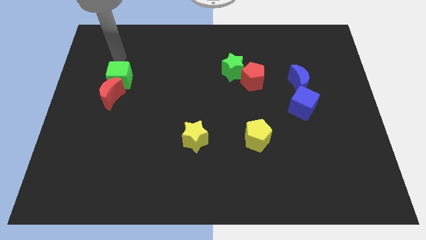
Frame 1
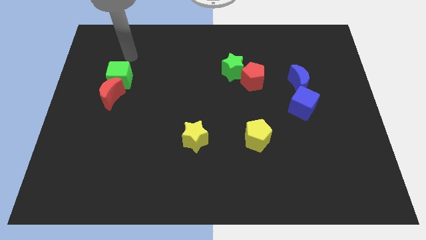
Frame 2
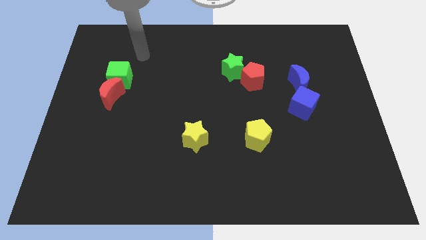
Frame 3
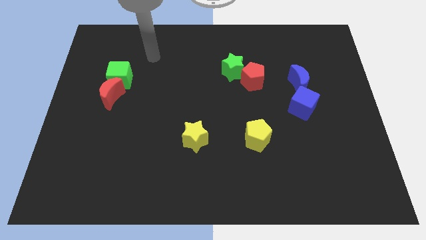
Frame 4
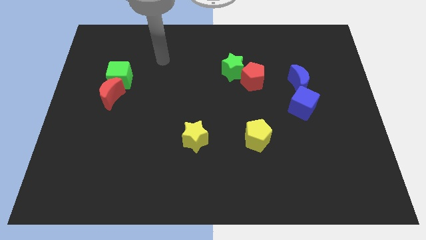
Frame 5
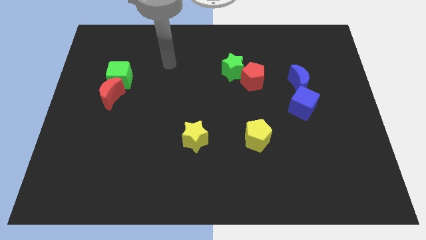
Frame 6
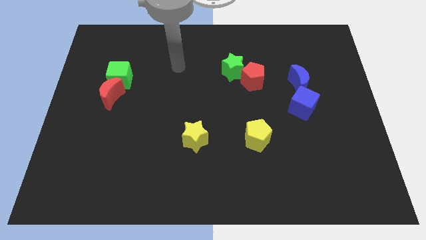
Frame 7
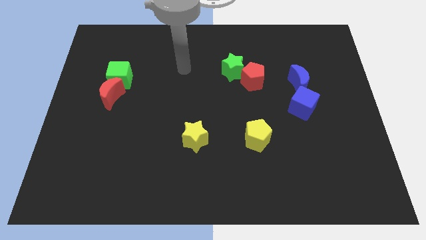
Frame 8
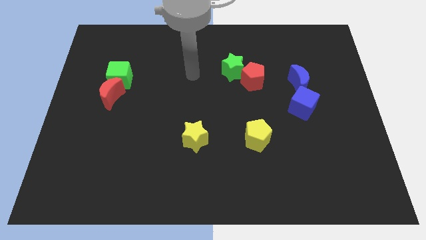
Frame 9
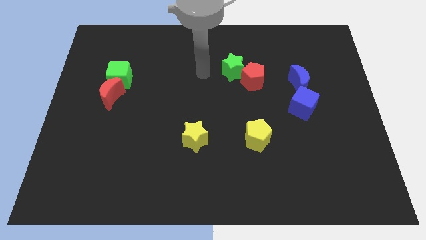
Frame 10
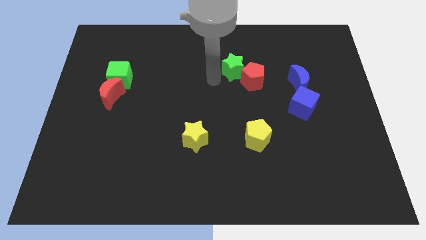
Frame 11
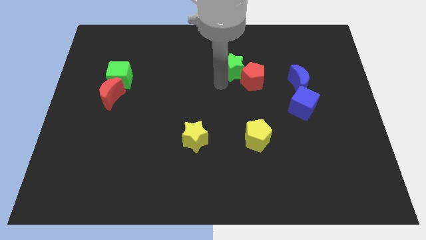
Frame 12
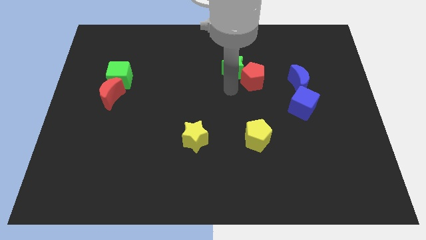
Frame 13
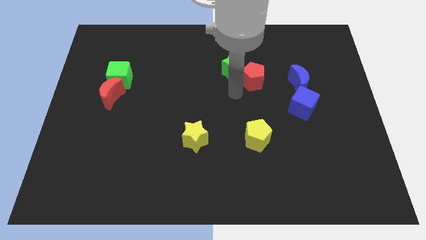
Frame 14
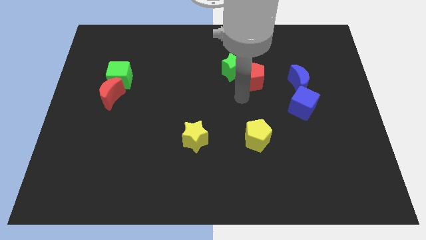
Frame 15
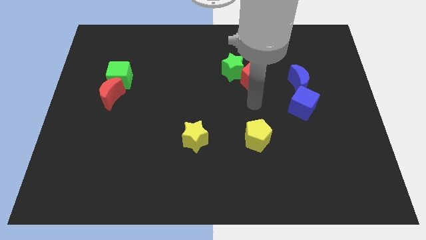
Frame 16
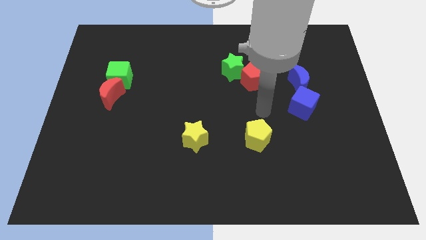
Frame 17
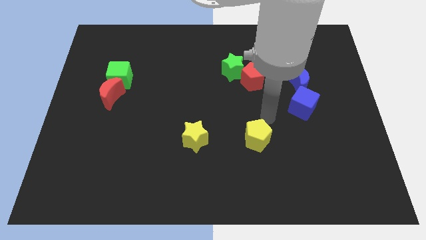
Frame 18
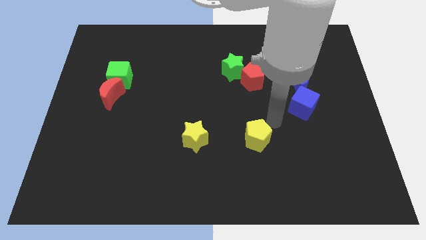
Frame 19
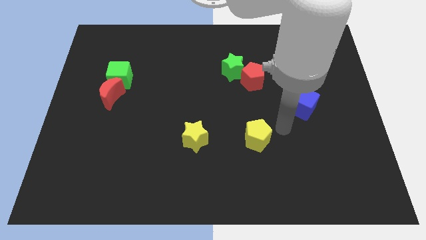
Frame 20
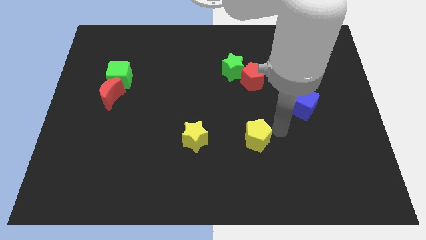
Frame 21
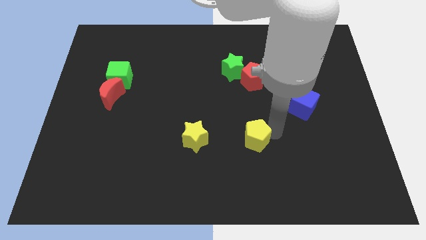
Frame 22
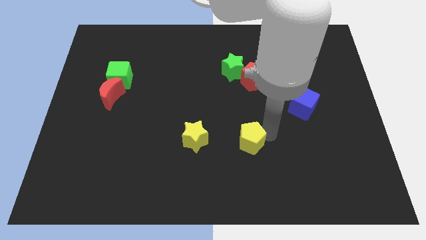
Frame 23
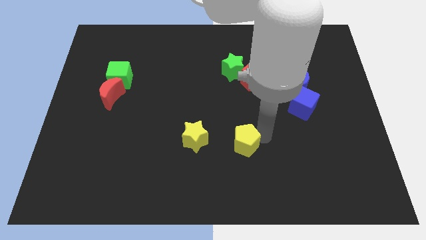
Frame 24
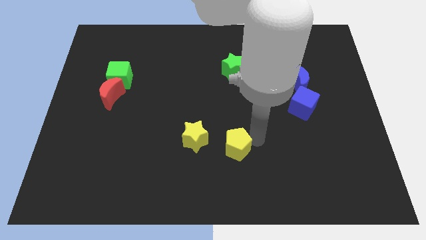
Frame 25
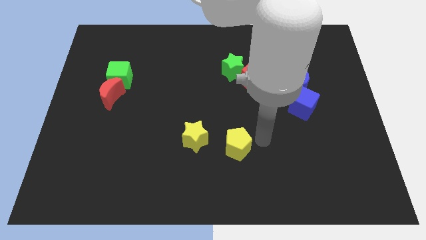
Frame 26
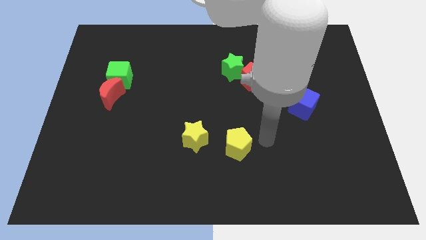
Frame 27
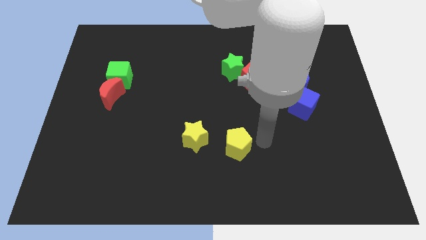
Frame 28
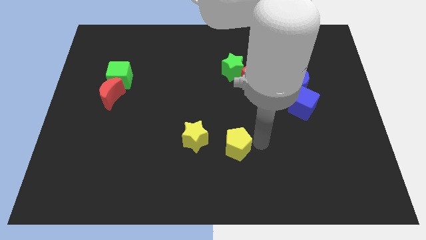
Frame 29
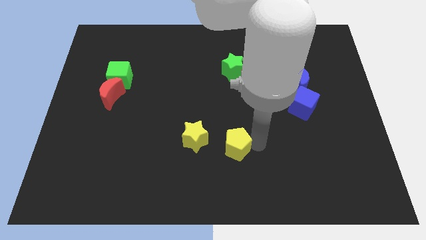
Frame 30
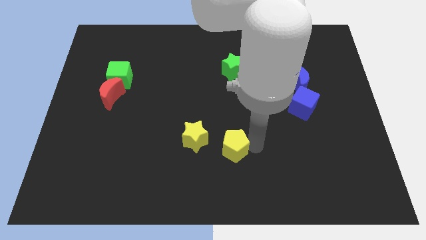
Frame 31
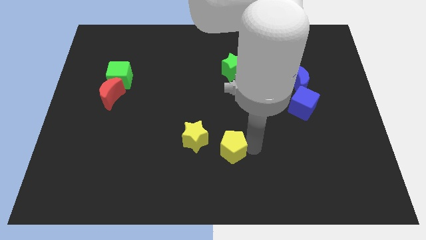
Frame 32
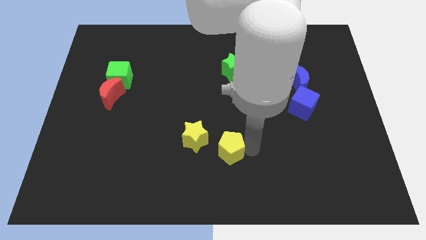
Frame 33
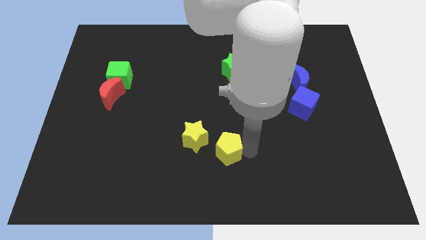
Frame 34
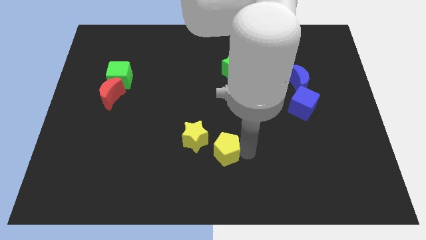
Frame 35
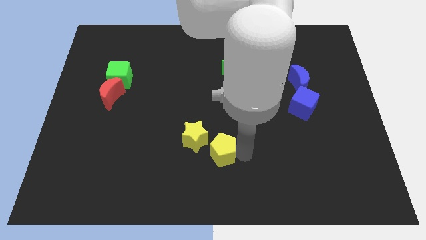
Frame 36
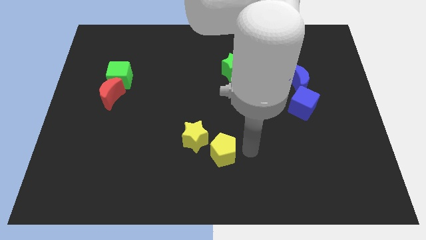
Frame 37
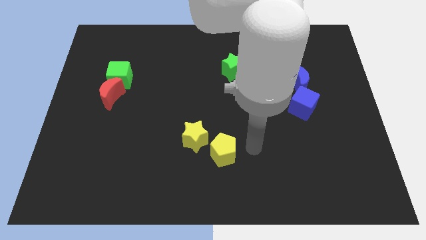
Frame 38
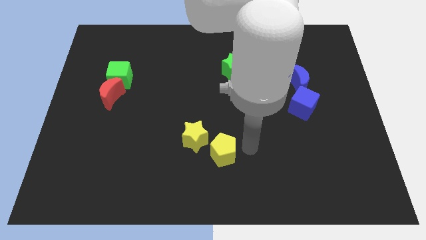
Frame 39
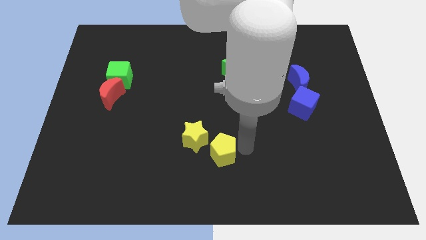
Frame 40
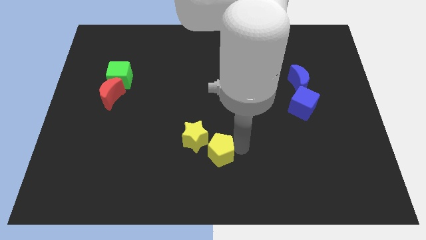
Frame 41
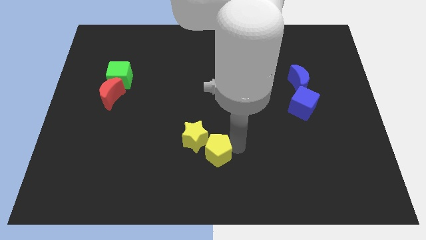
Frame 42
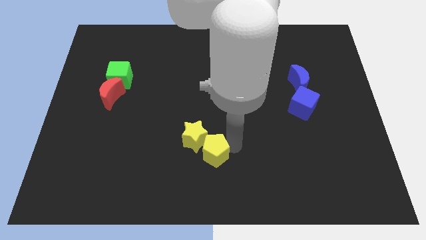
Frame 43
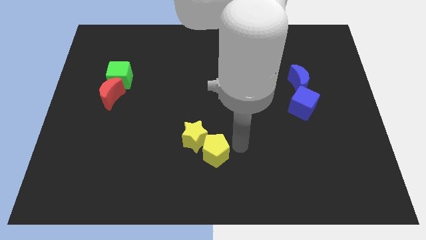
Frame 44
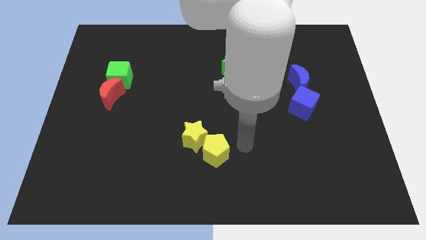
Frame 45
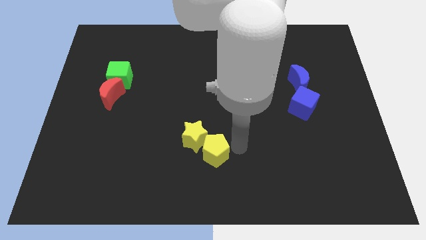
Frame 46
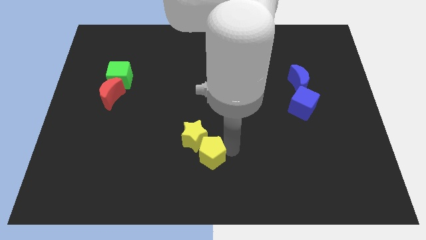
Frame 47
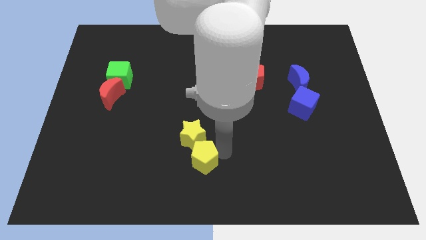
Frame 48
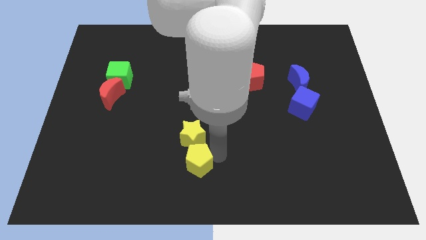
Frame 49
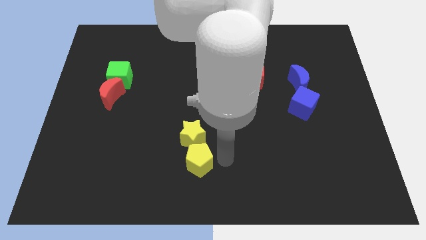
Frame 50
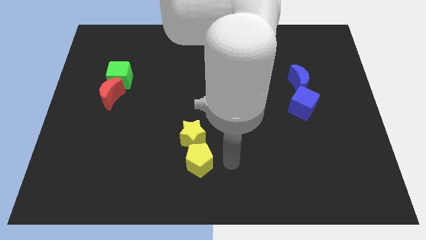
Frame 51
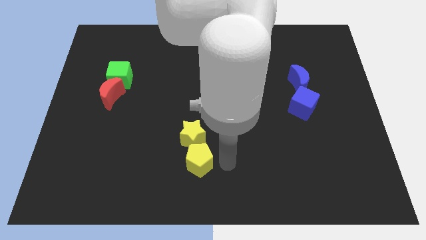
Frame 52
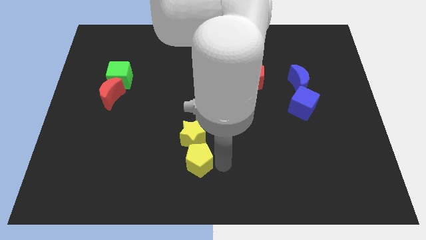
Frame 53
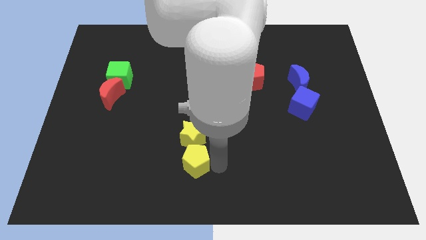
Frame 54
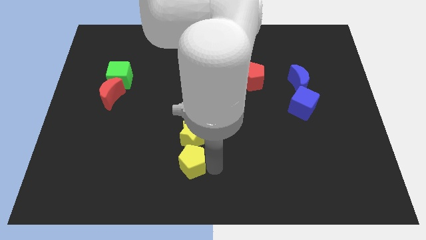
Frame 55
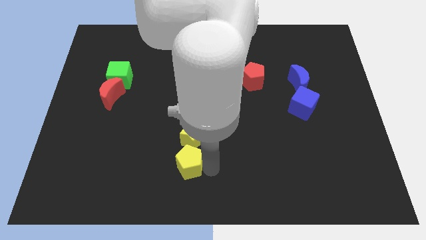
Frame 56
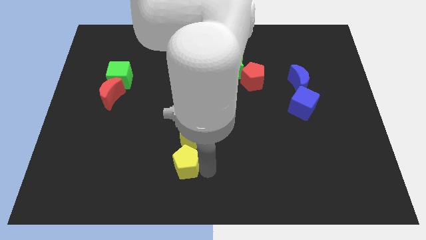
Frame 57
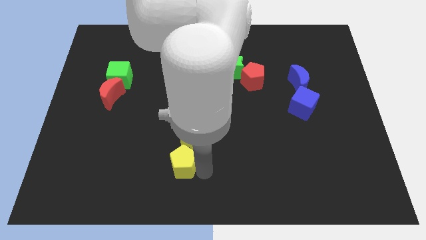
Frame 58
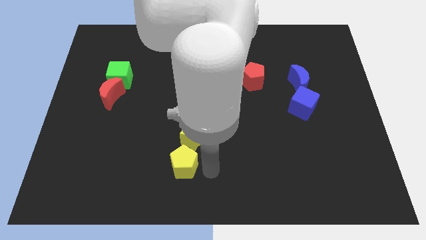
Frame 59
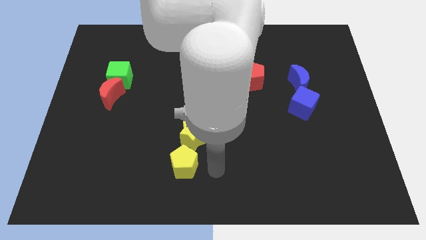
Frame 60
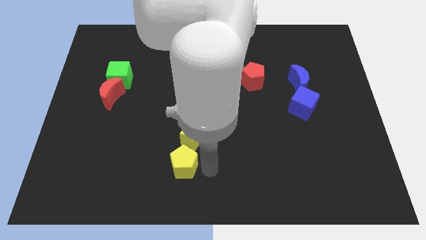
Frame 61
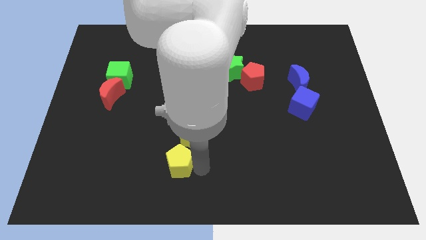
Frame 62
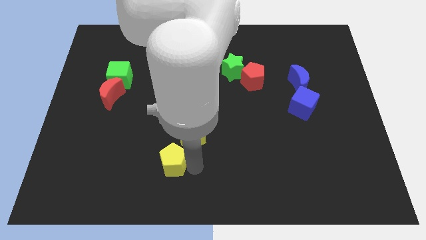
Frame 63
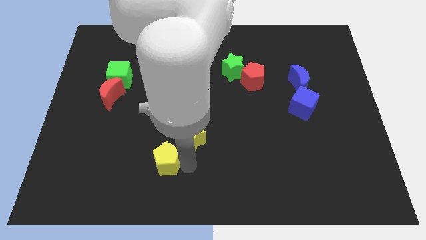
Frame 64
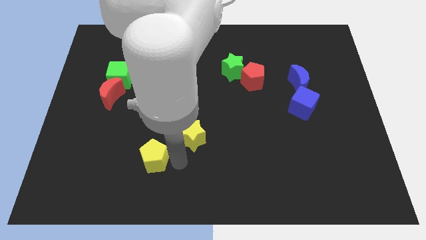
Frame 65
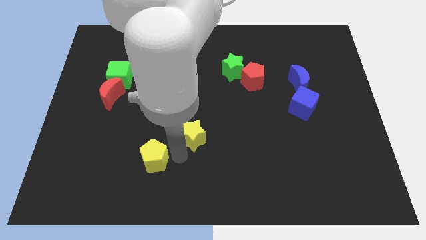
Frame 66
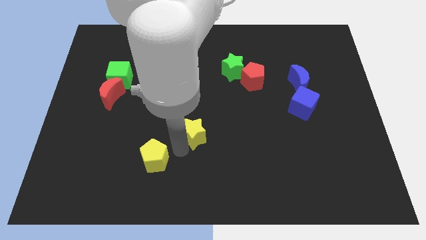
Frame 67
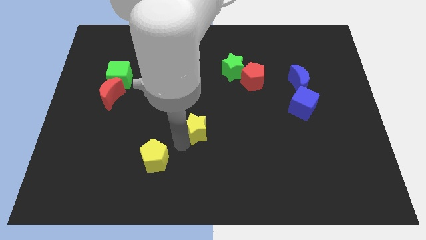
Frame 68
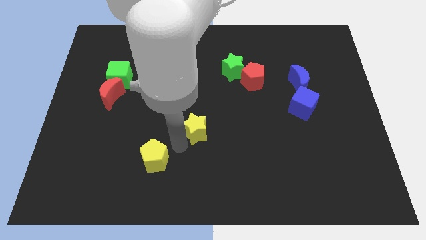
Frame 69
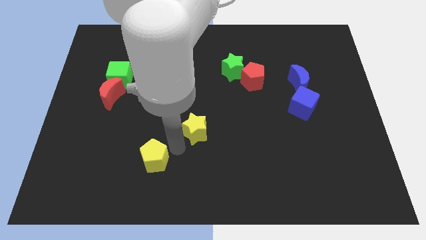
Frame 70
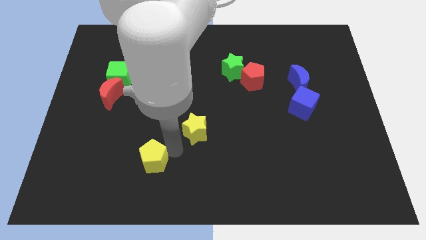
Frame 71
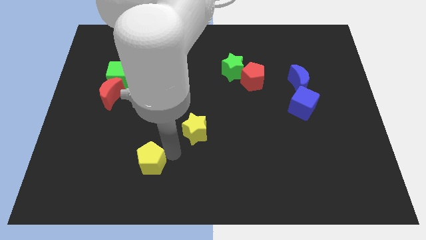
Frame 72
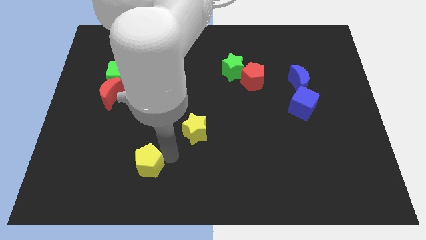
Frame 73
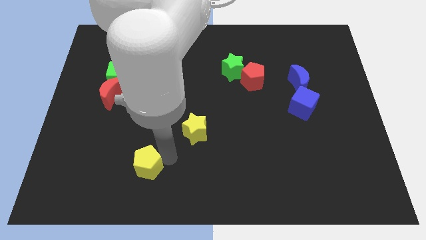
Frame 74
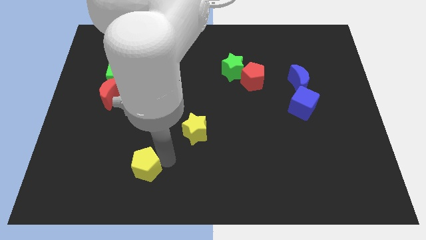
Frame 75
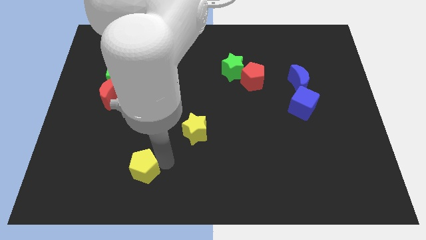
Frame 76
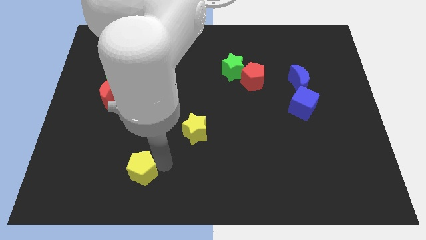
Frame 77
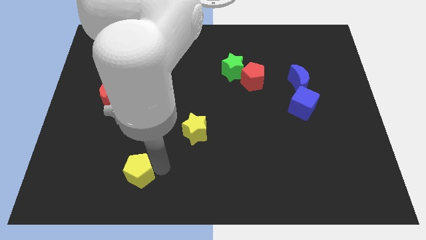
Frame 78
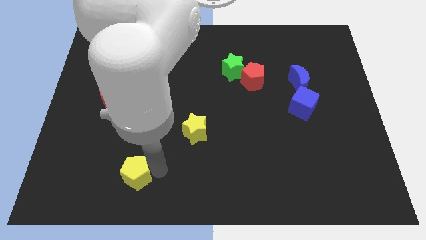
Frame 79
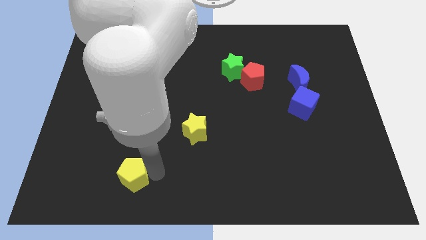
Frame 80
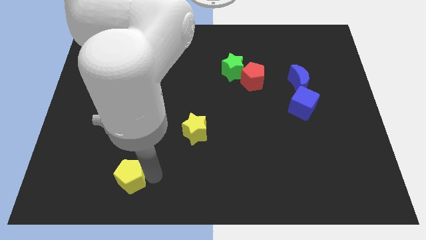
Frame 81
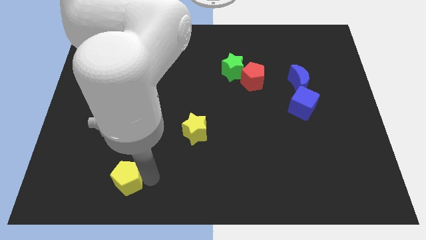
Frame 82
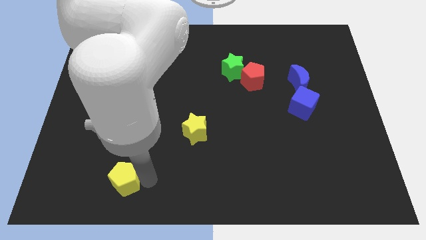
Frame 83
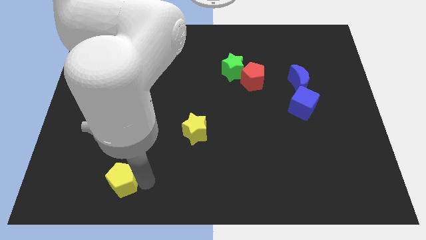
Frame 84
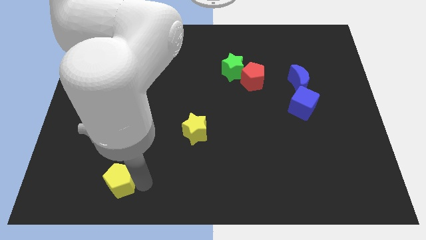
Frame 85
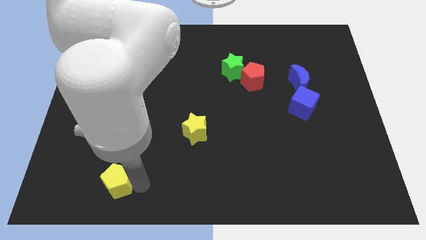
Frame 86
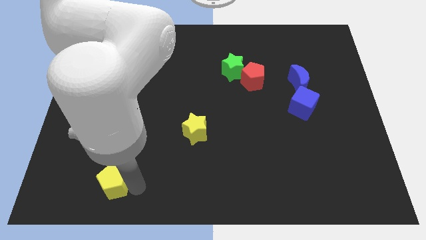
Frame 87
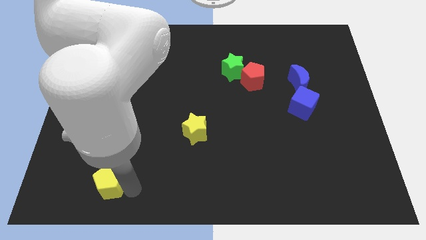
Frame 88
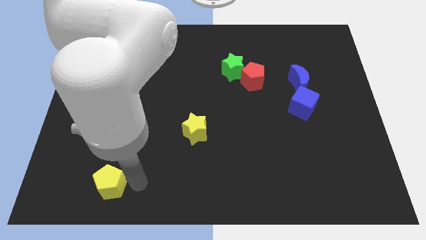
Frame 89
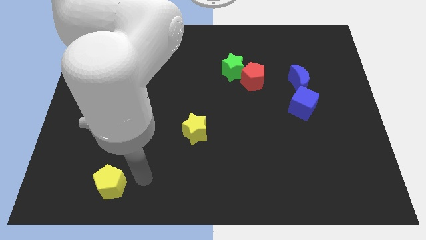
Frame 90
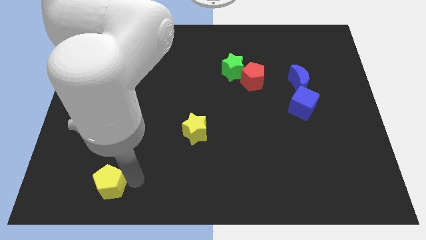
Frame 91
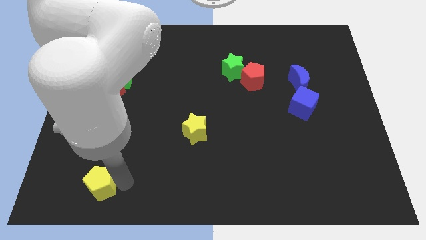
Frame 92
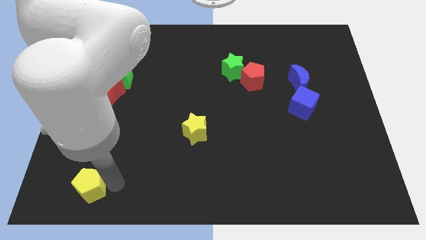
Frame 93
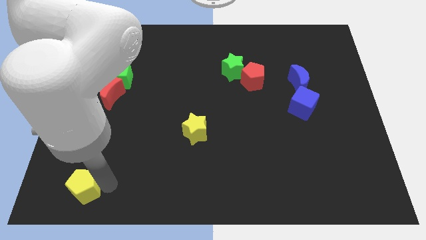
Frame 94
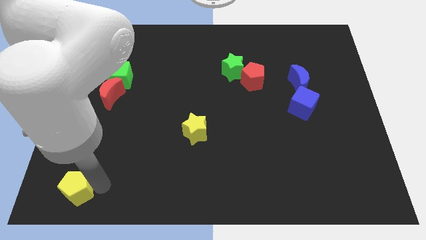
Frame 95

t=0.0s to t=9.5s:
slide the yellow pentagon to the lower left corner
